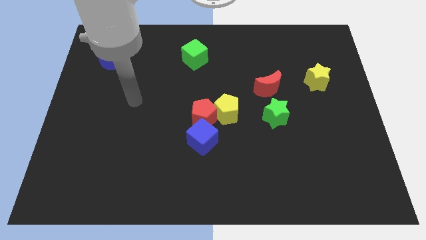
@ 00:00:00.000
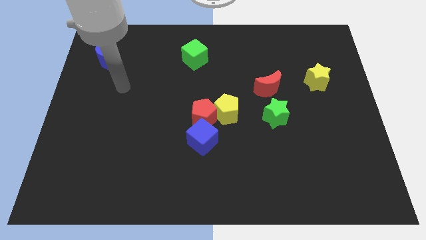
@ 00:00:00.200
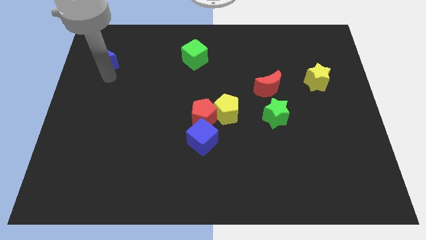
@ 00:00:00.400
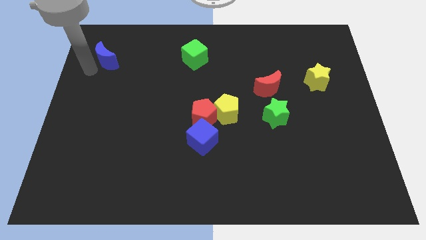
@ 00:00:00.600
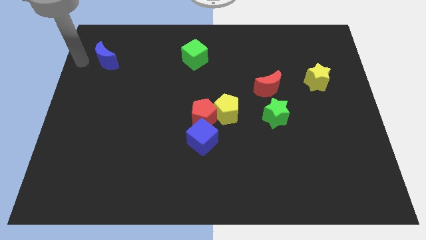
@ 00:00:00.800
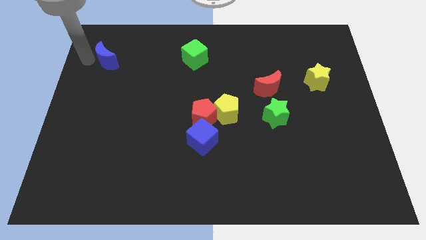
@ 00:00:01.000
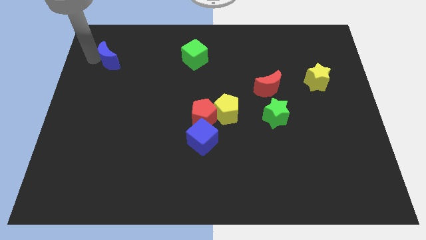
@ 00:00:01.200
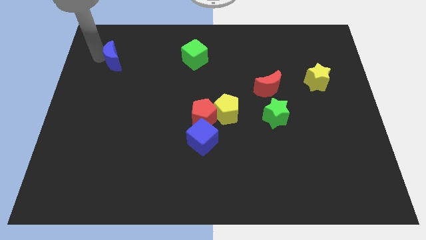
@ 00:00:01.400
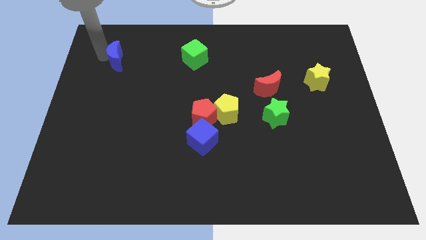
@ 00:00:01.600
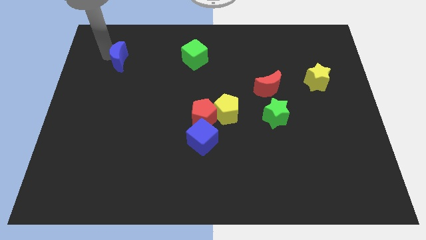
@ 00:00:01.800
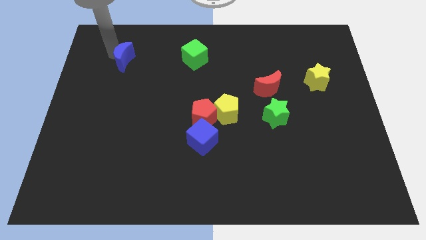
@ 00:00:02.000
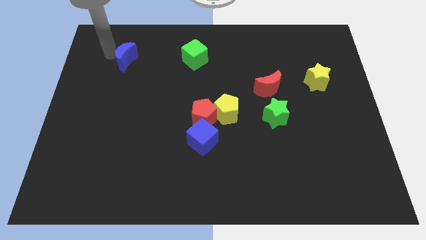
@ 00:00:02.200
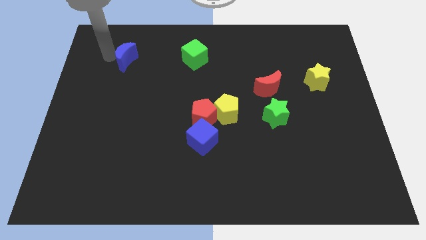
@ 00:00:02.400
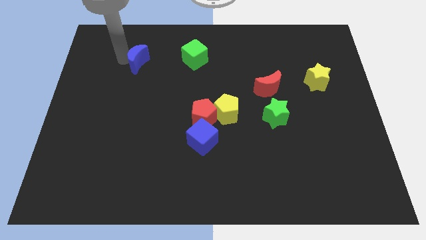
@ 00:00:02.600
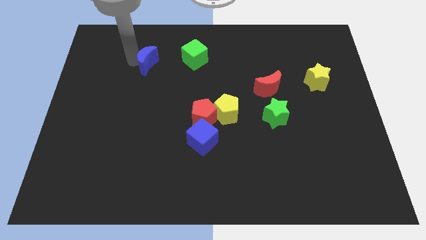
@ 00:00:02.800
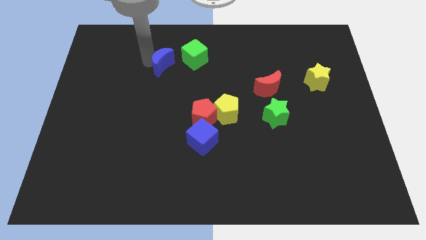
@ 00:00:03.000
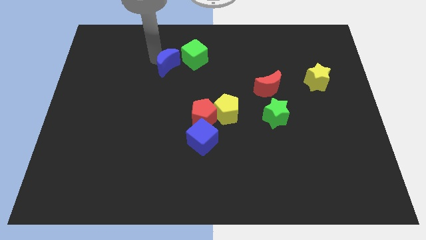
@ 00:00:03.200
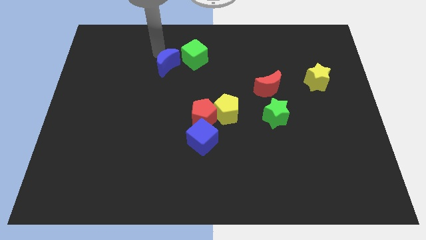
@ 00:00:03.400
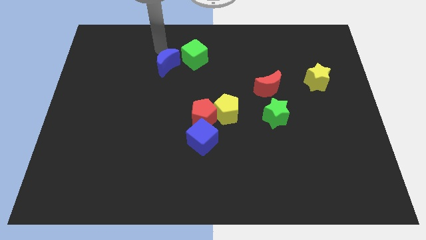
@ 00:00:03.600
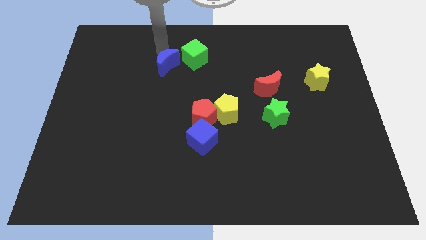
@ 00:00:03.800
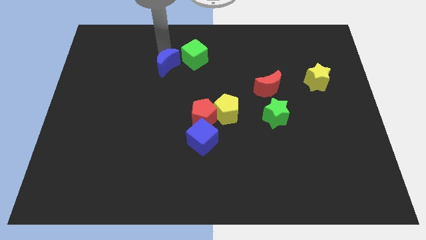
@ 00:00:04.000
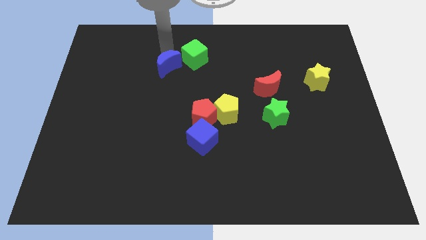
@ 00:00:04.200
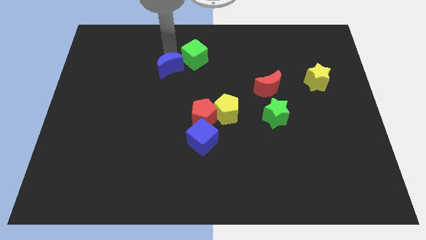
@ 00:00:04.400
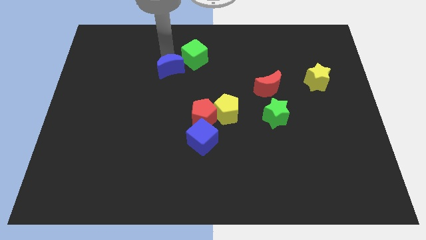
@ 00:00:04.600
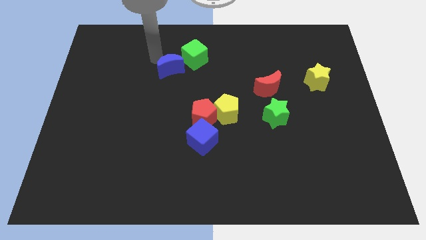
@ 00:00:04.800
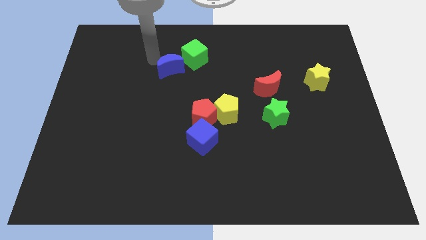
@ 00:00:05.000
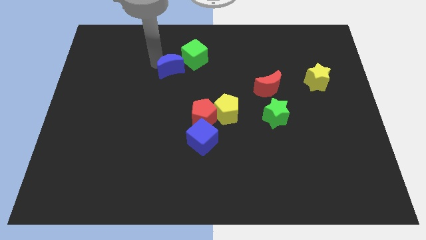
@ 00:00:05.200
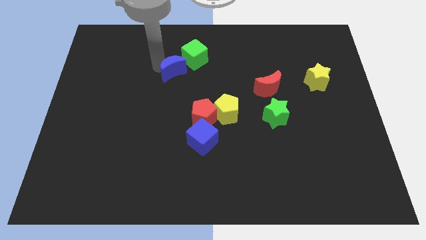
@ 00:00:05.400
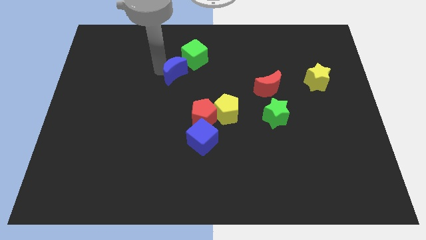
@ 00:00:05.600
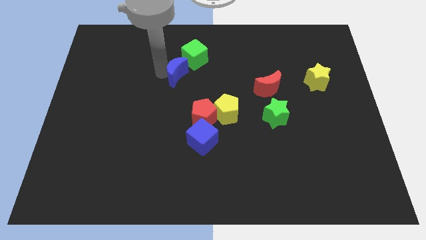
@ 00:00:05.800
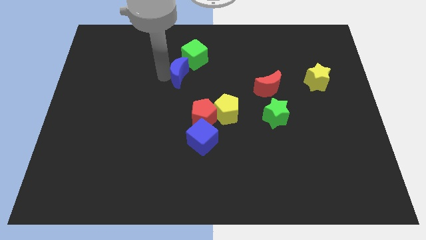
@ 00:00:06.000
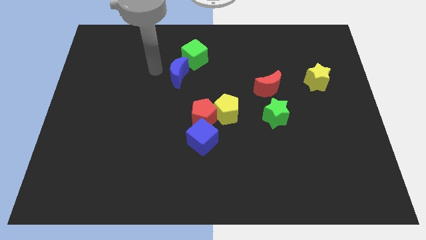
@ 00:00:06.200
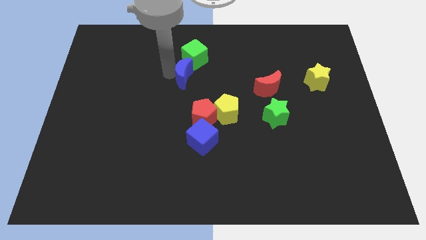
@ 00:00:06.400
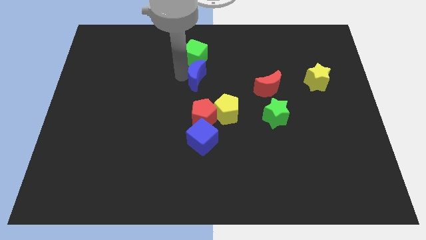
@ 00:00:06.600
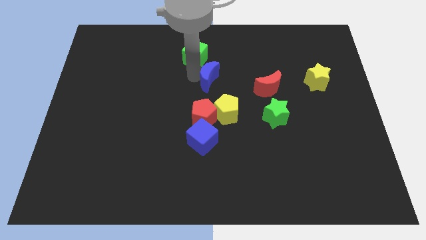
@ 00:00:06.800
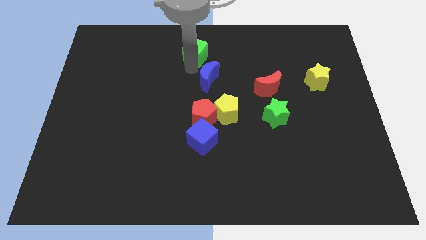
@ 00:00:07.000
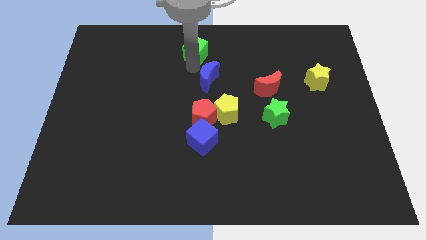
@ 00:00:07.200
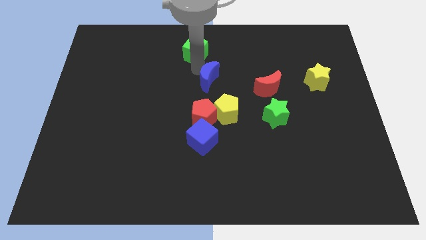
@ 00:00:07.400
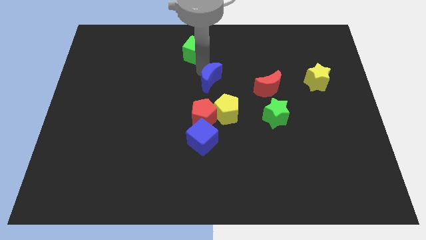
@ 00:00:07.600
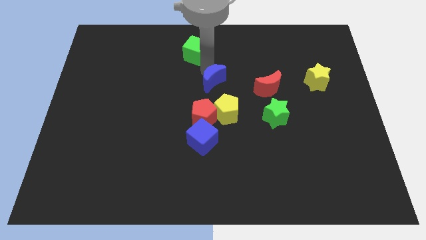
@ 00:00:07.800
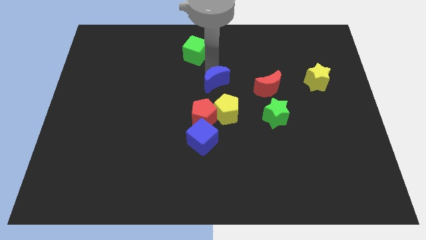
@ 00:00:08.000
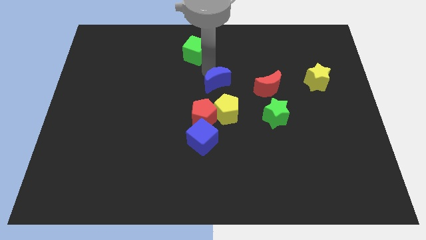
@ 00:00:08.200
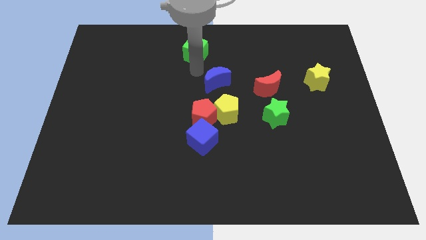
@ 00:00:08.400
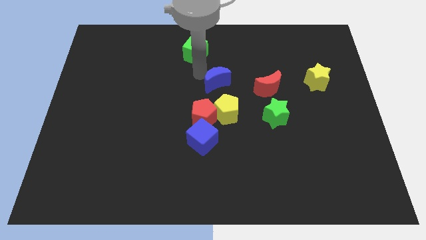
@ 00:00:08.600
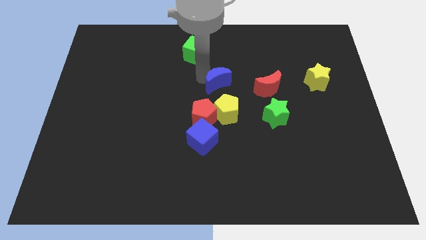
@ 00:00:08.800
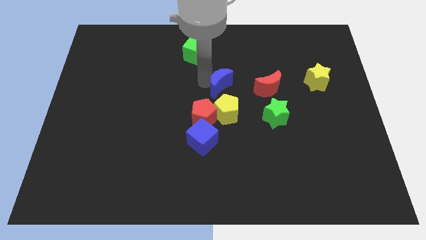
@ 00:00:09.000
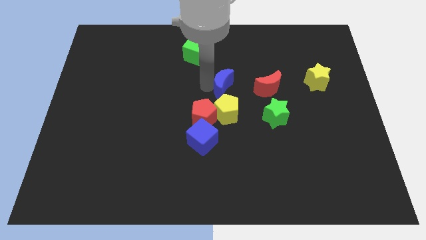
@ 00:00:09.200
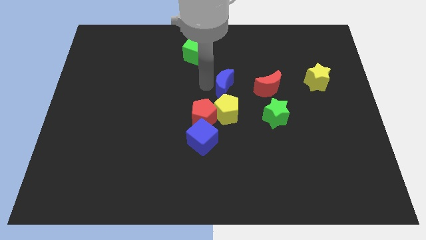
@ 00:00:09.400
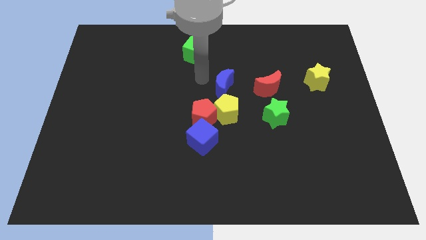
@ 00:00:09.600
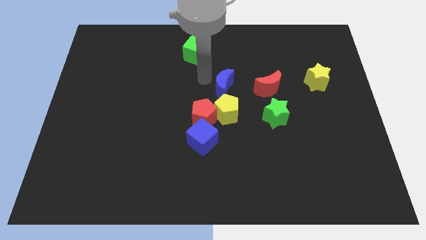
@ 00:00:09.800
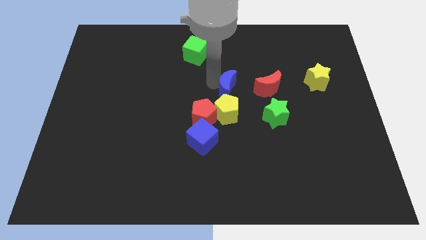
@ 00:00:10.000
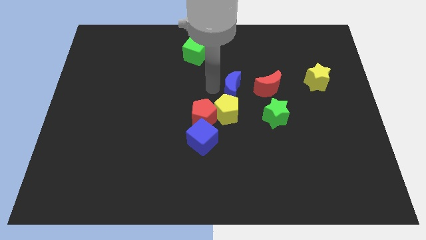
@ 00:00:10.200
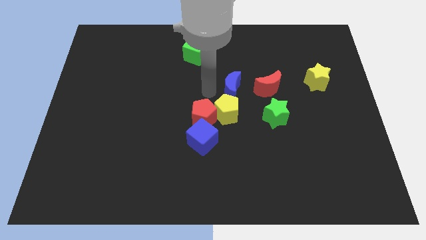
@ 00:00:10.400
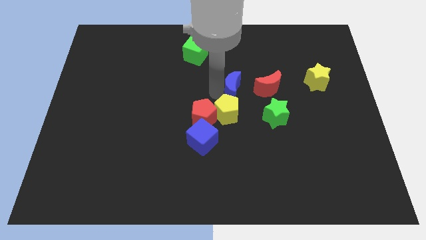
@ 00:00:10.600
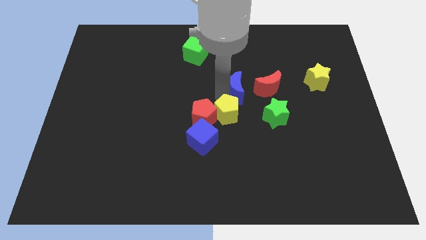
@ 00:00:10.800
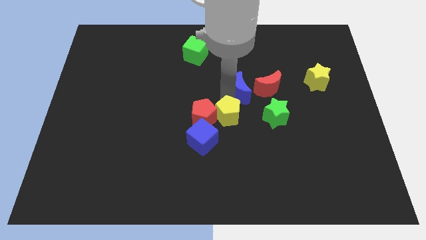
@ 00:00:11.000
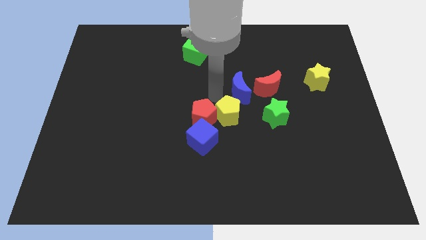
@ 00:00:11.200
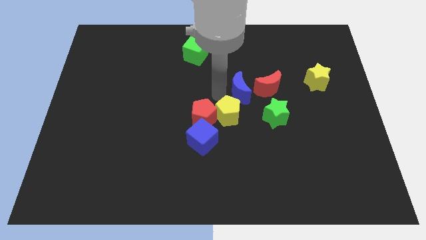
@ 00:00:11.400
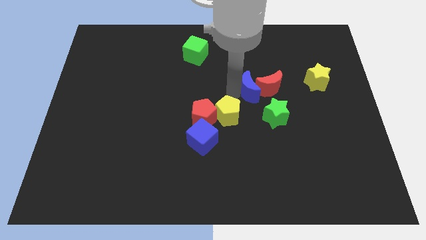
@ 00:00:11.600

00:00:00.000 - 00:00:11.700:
slide the blue moon close to the red moon

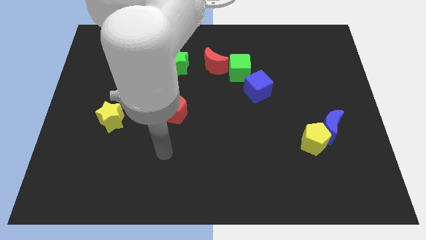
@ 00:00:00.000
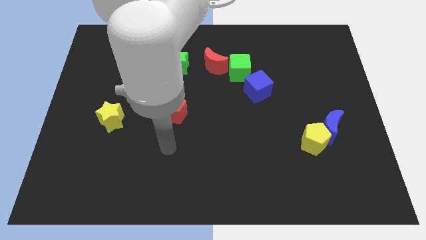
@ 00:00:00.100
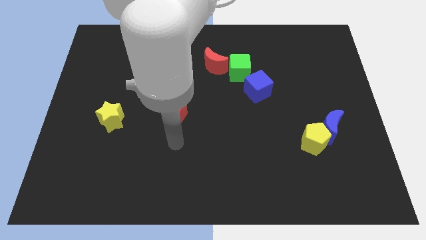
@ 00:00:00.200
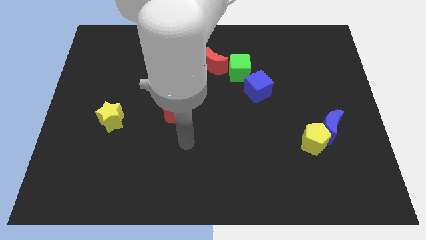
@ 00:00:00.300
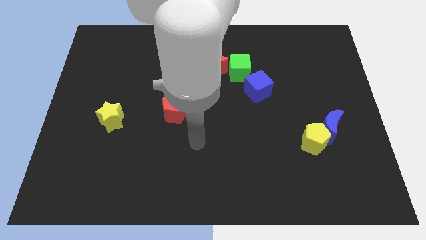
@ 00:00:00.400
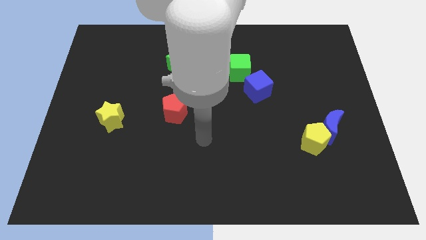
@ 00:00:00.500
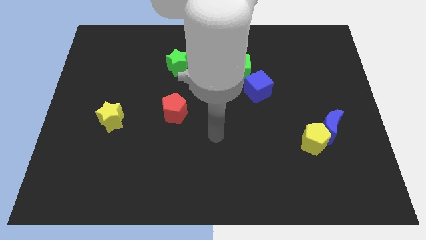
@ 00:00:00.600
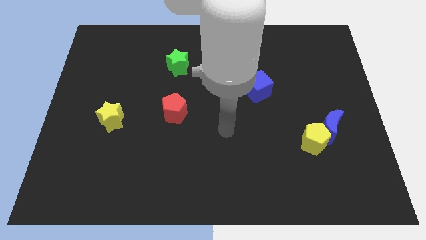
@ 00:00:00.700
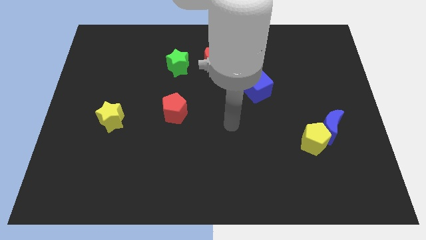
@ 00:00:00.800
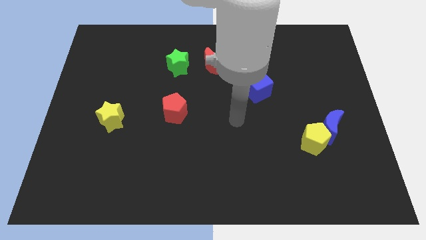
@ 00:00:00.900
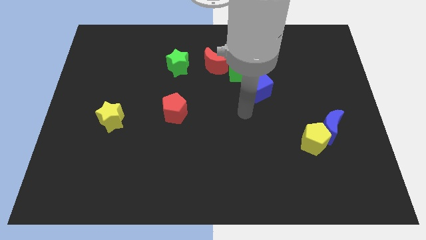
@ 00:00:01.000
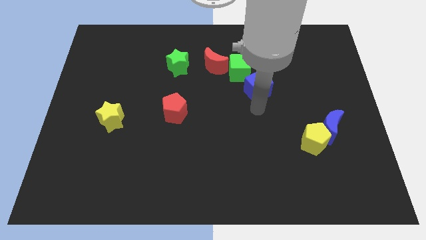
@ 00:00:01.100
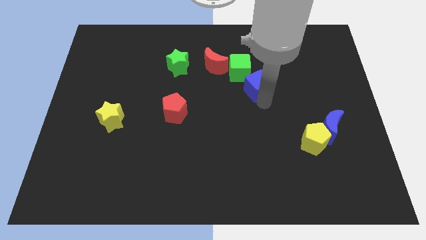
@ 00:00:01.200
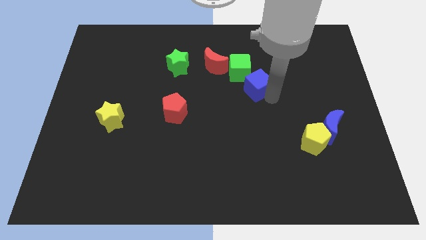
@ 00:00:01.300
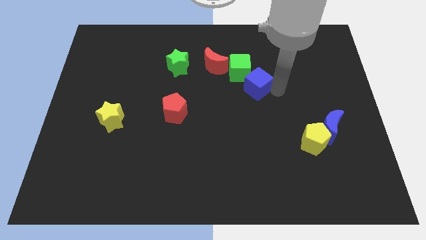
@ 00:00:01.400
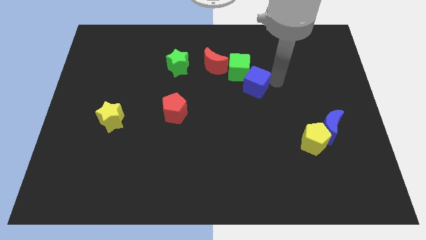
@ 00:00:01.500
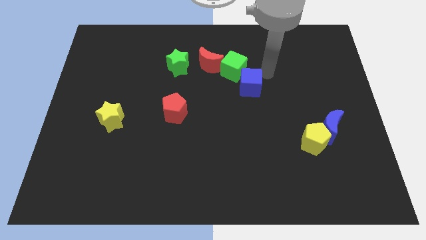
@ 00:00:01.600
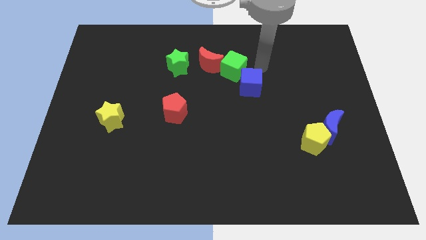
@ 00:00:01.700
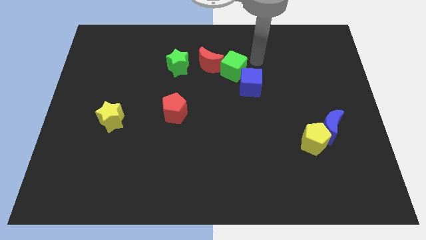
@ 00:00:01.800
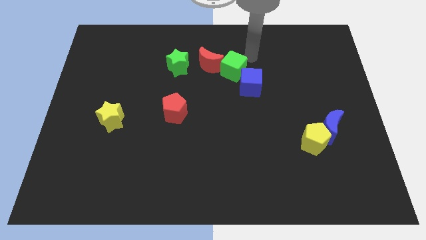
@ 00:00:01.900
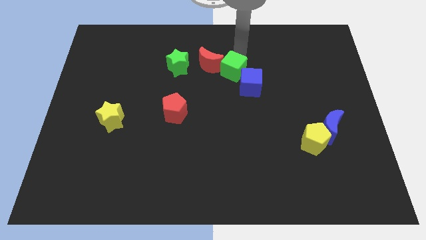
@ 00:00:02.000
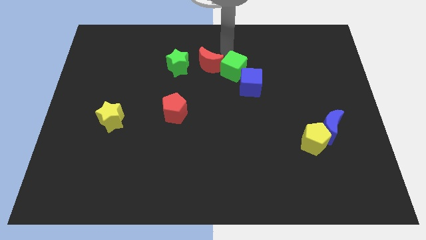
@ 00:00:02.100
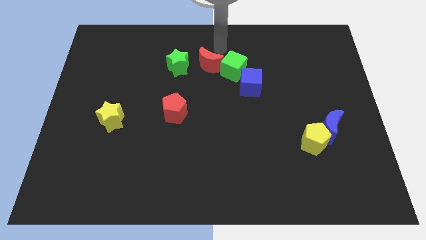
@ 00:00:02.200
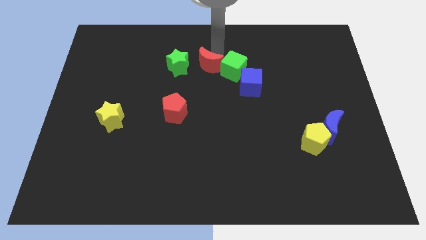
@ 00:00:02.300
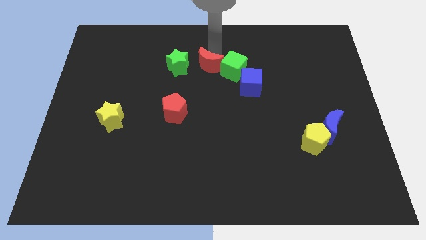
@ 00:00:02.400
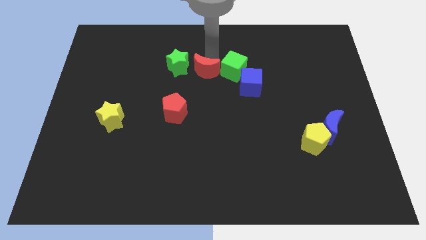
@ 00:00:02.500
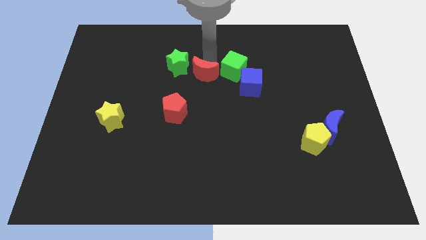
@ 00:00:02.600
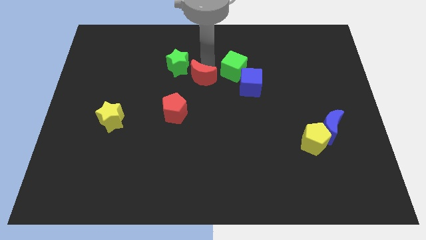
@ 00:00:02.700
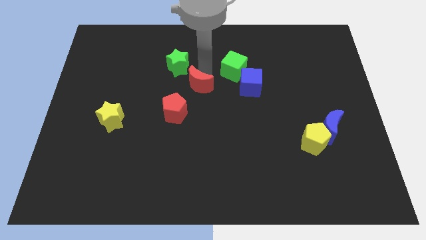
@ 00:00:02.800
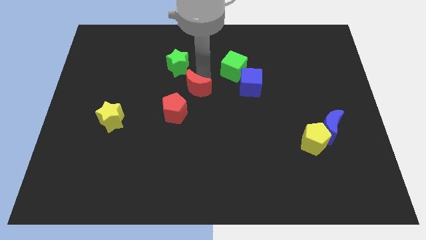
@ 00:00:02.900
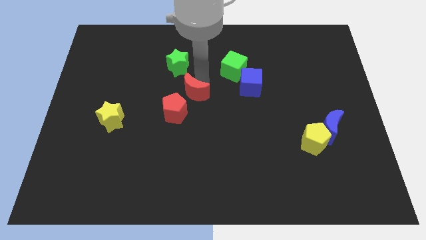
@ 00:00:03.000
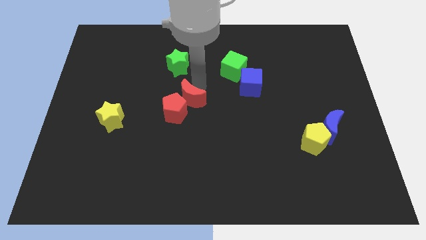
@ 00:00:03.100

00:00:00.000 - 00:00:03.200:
move the red moon towards the red pentagon
